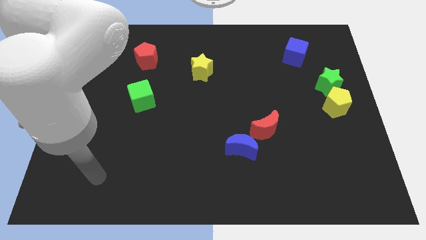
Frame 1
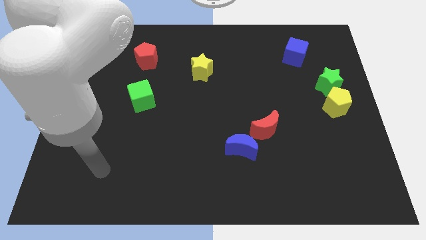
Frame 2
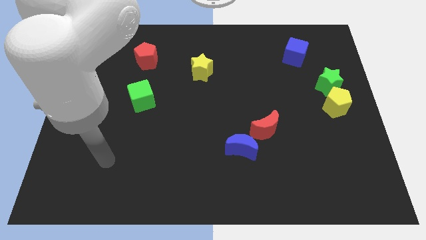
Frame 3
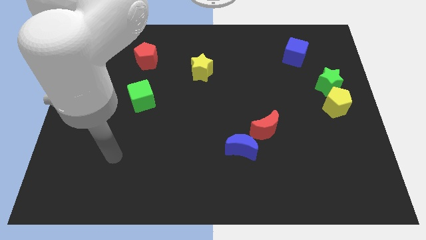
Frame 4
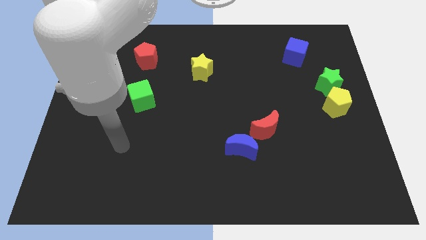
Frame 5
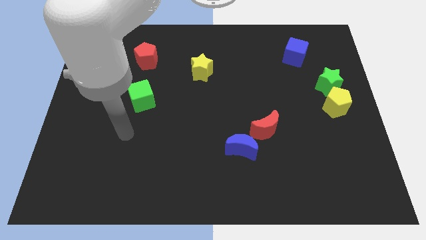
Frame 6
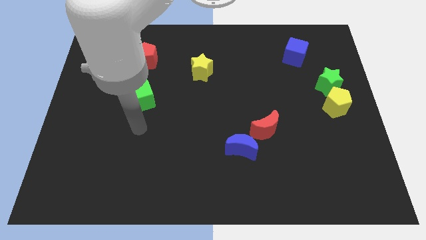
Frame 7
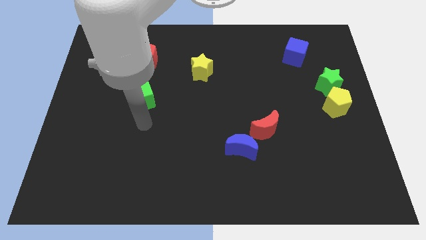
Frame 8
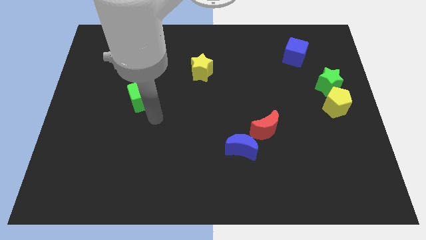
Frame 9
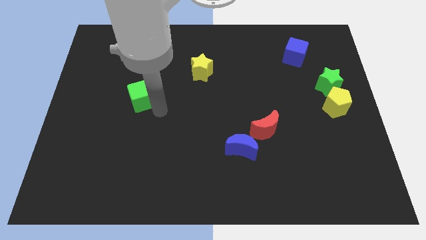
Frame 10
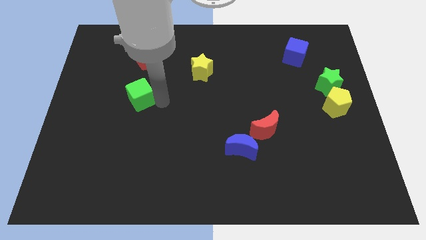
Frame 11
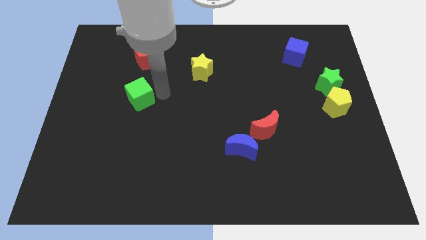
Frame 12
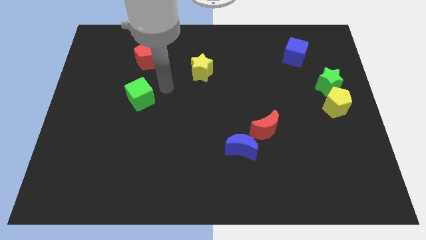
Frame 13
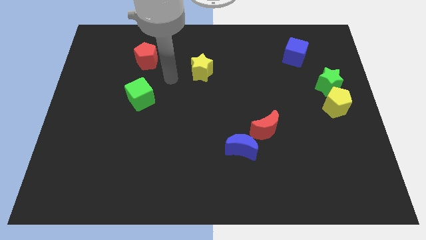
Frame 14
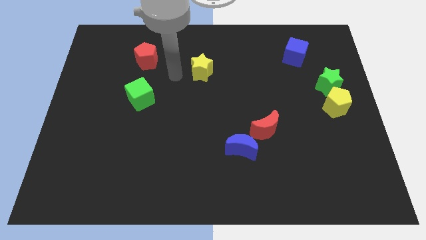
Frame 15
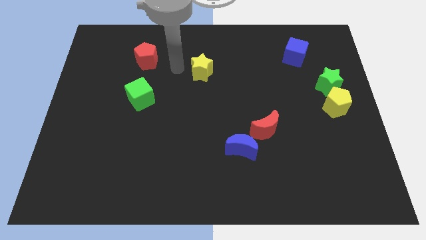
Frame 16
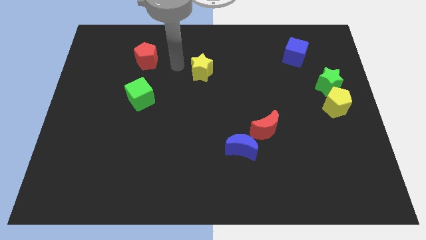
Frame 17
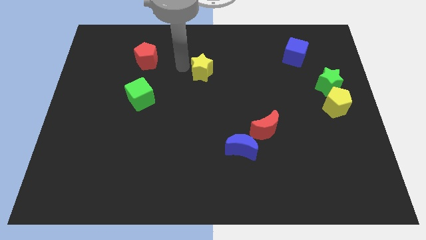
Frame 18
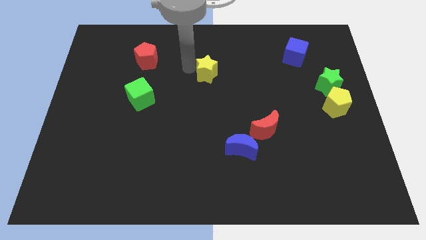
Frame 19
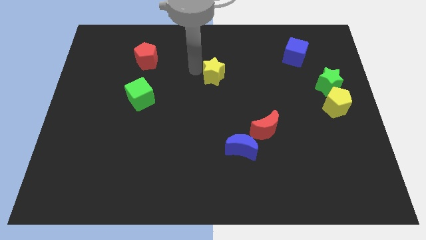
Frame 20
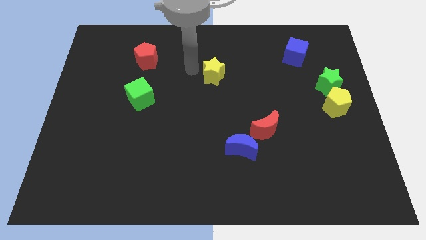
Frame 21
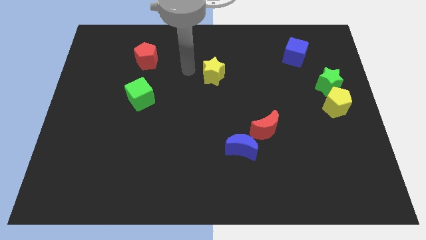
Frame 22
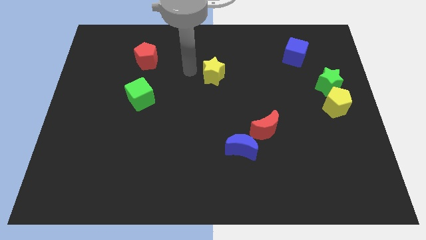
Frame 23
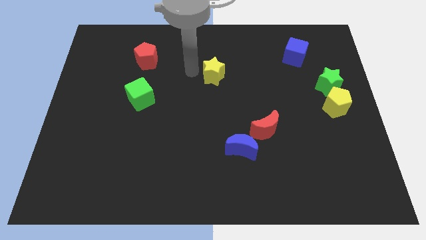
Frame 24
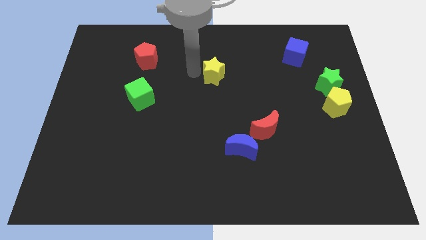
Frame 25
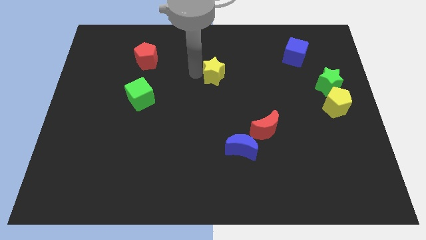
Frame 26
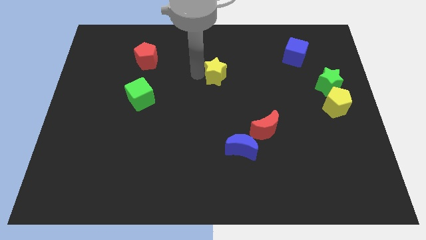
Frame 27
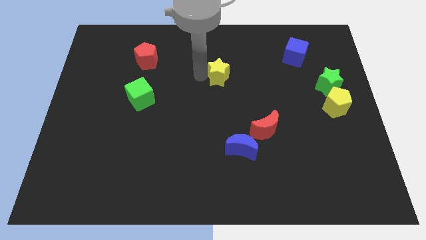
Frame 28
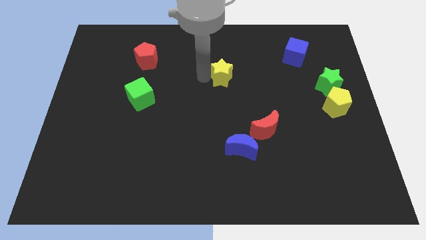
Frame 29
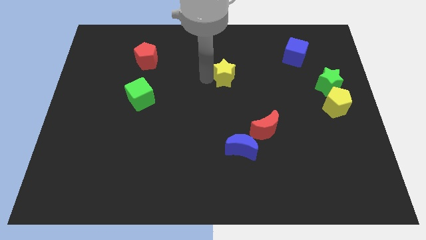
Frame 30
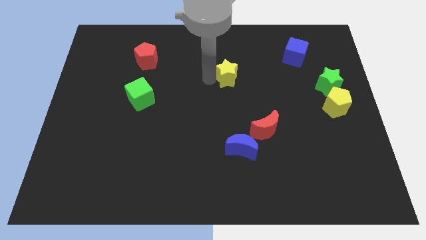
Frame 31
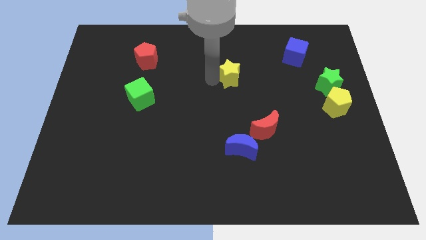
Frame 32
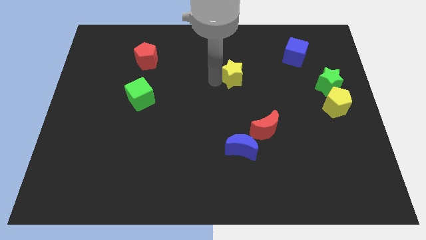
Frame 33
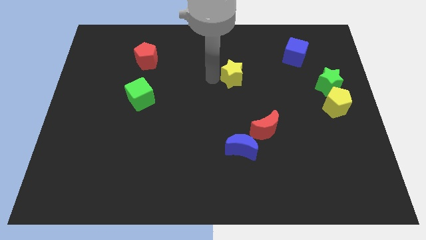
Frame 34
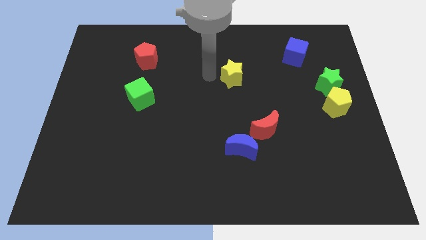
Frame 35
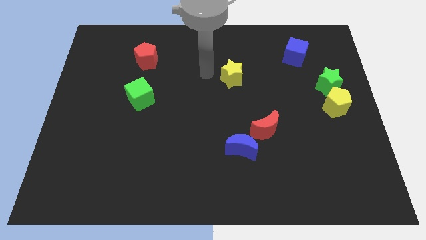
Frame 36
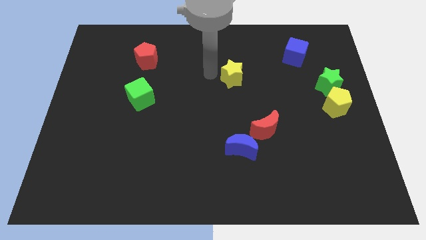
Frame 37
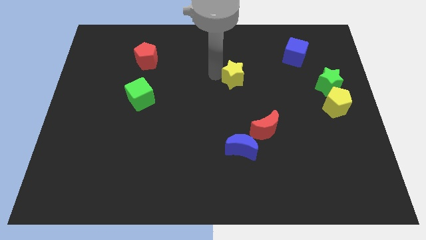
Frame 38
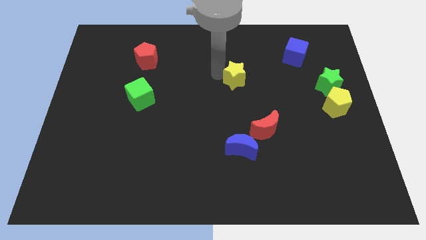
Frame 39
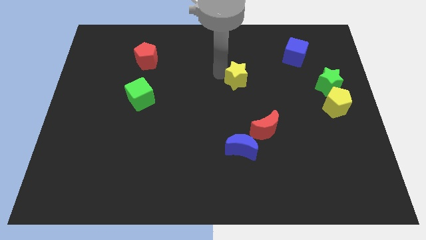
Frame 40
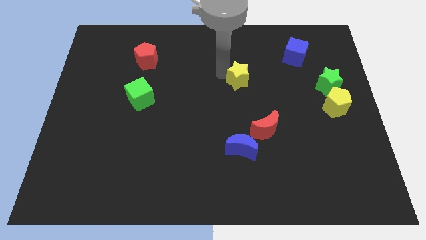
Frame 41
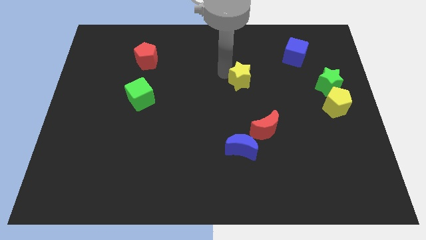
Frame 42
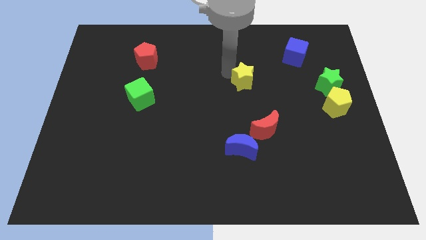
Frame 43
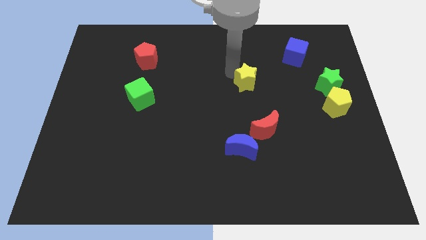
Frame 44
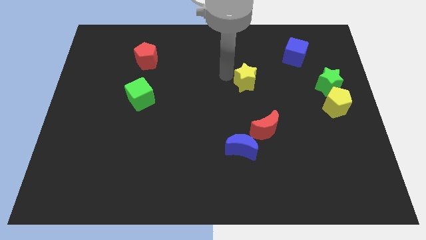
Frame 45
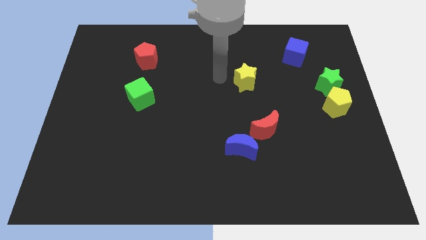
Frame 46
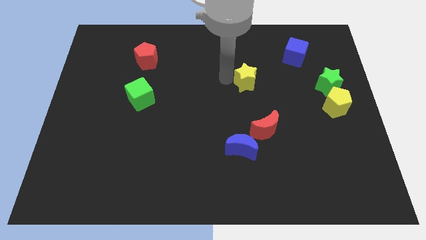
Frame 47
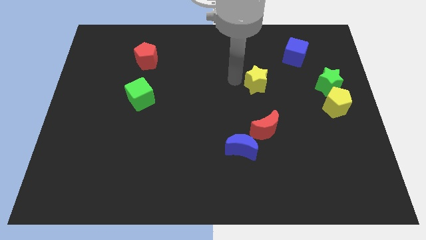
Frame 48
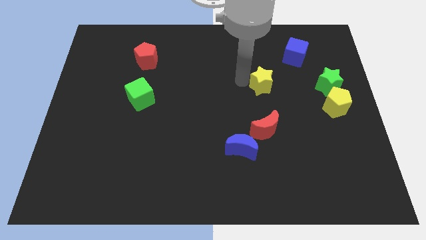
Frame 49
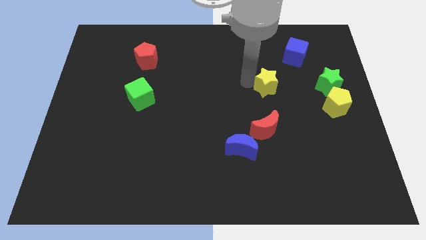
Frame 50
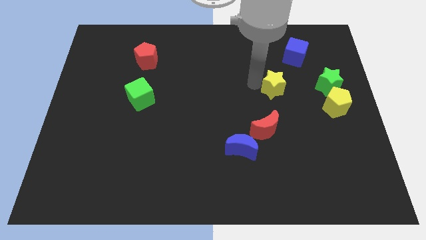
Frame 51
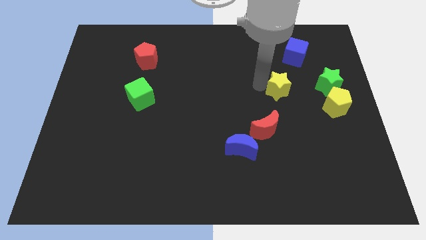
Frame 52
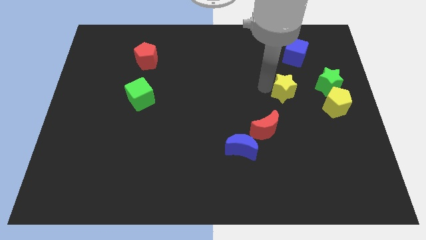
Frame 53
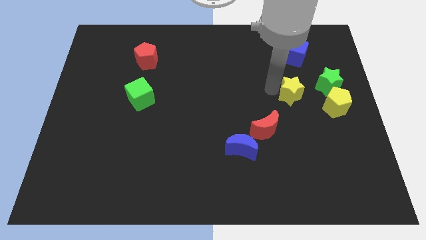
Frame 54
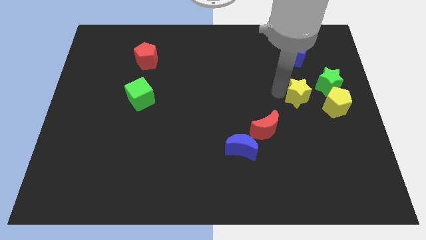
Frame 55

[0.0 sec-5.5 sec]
push the yellow star to the top left of the yellow pentagon

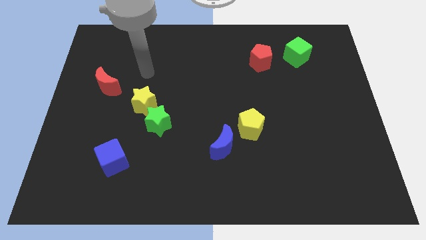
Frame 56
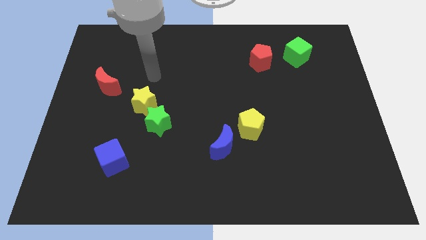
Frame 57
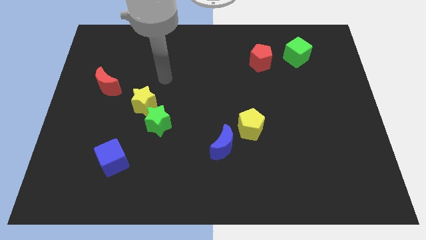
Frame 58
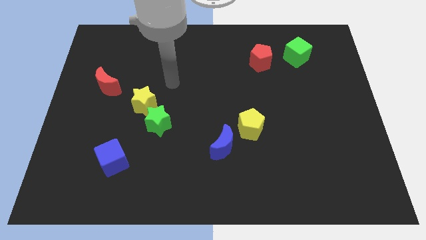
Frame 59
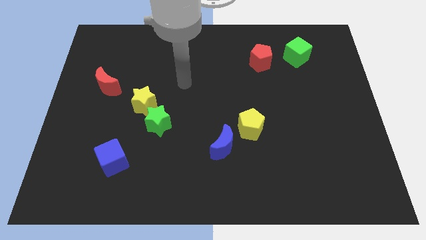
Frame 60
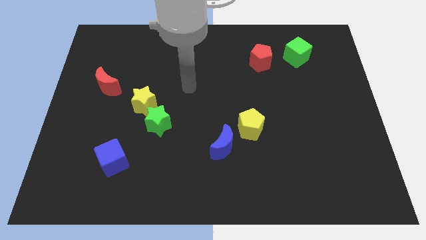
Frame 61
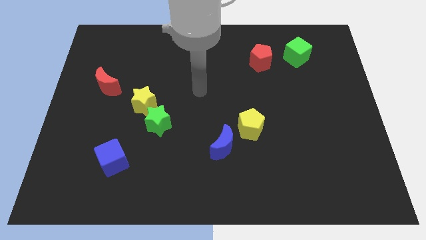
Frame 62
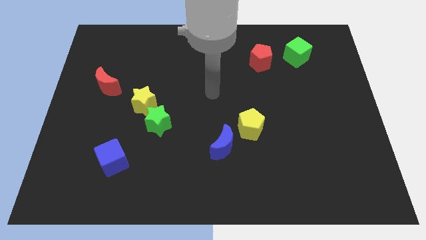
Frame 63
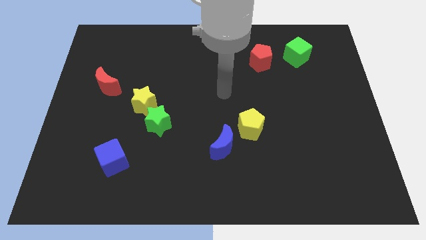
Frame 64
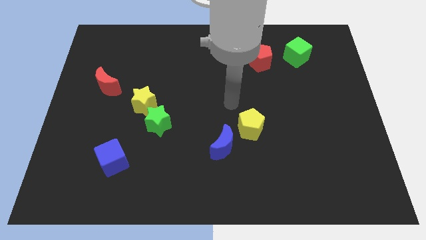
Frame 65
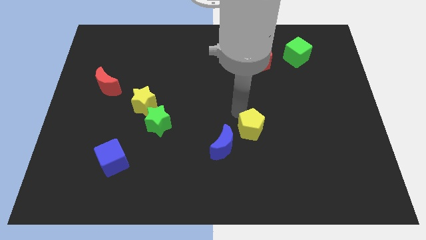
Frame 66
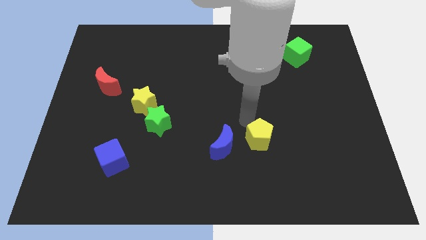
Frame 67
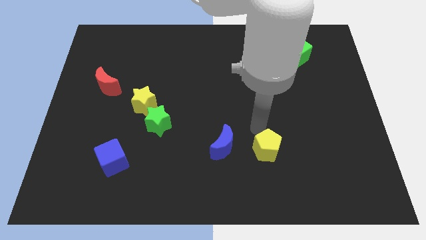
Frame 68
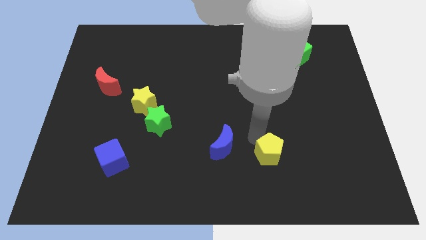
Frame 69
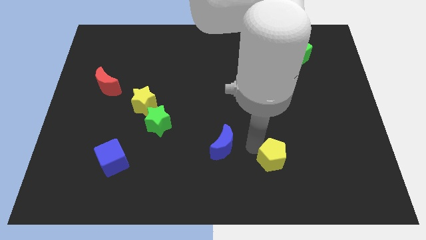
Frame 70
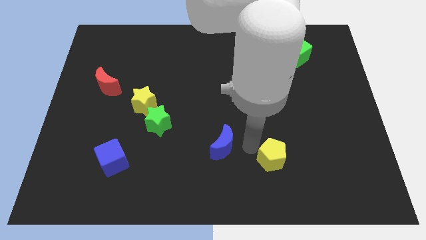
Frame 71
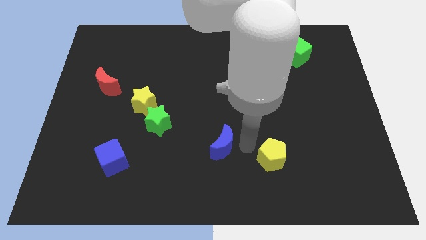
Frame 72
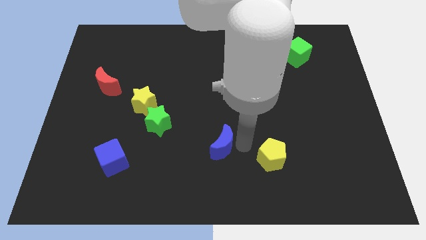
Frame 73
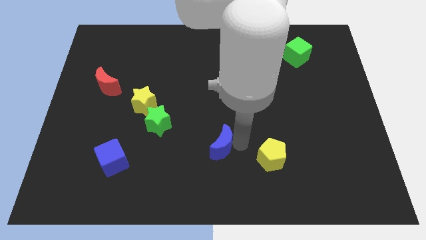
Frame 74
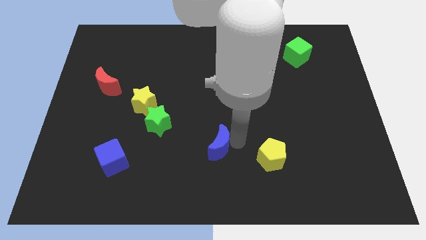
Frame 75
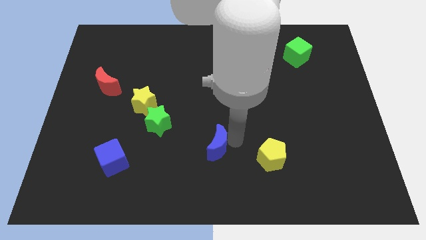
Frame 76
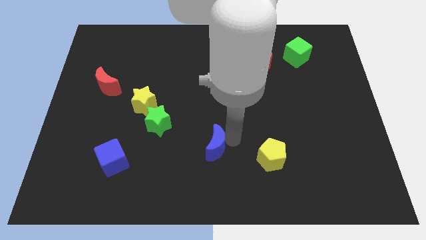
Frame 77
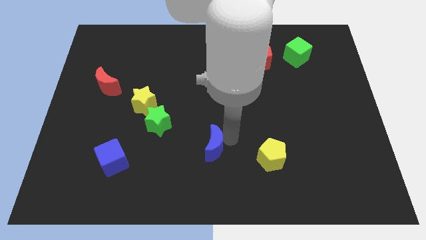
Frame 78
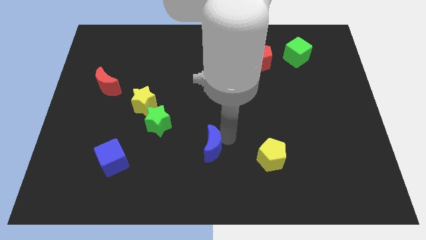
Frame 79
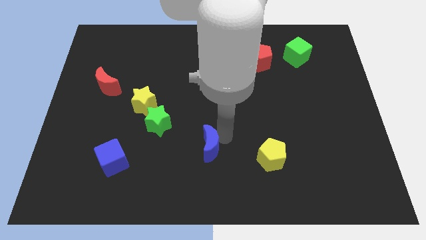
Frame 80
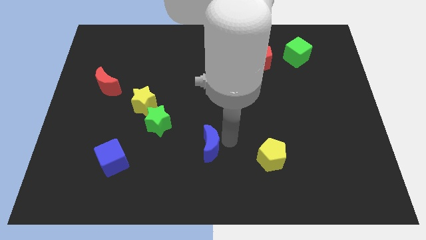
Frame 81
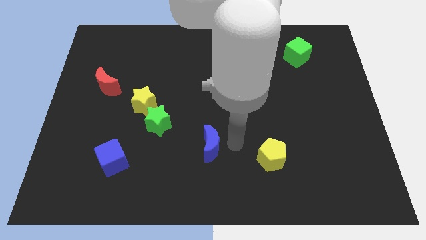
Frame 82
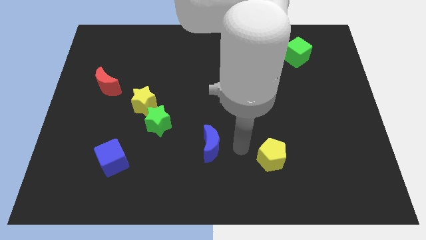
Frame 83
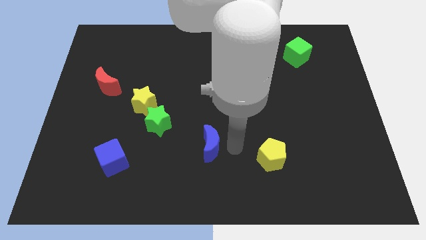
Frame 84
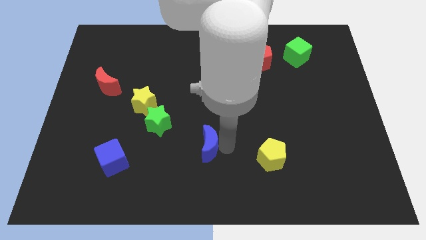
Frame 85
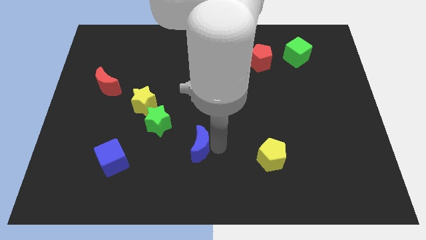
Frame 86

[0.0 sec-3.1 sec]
move the blue moon diagonally down and to the right of the green star
